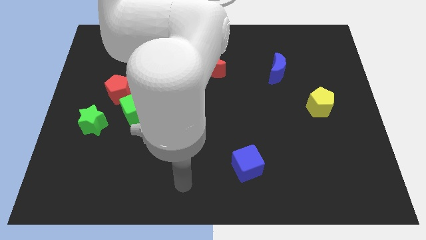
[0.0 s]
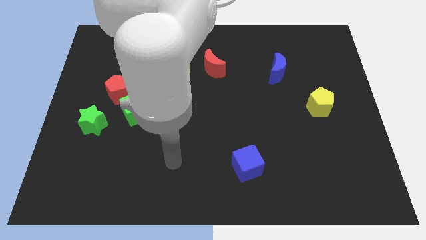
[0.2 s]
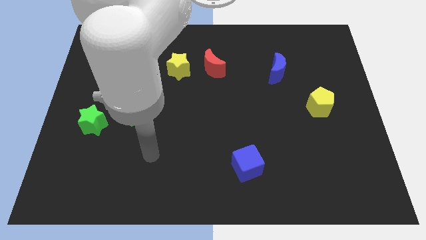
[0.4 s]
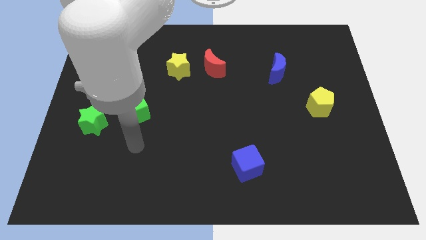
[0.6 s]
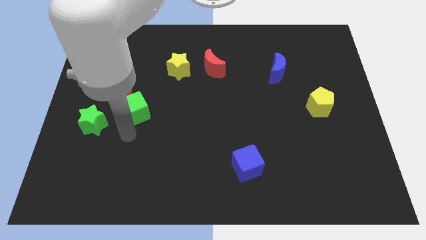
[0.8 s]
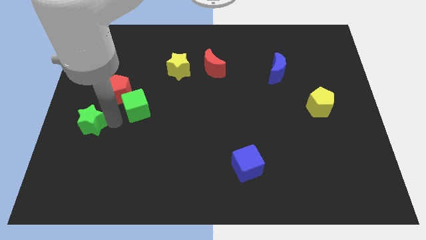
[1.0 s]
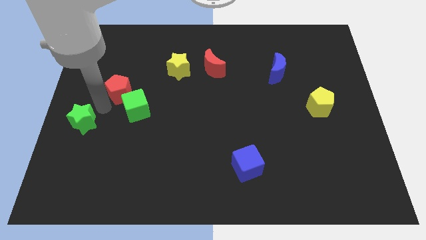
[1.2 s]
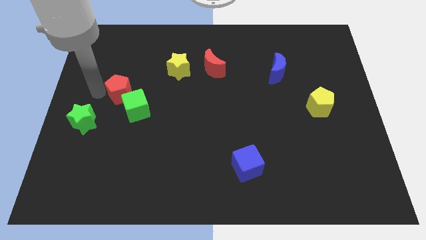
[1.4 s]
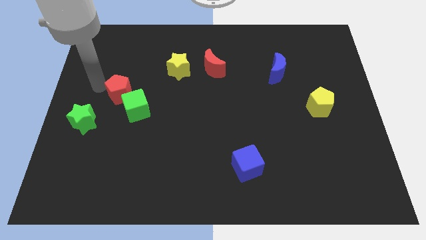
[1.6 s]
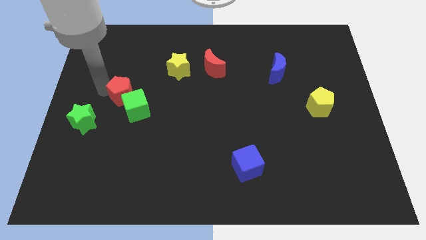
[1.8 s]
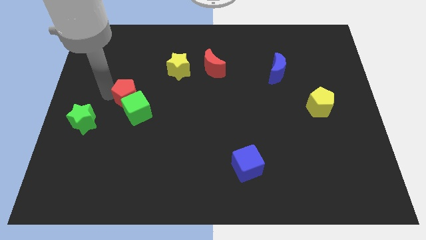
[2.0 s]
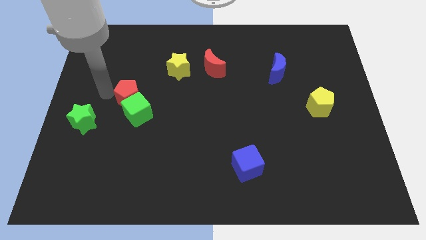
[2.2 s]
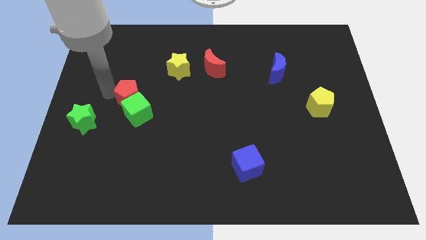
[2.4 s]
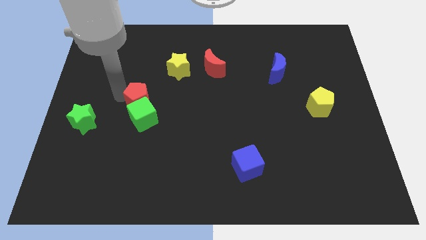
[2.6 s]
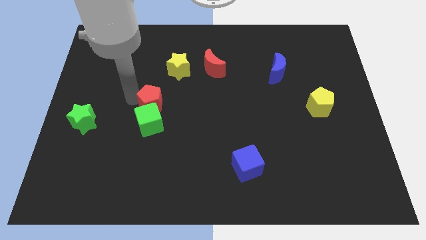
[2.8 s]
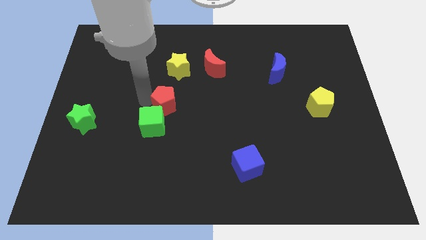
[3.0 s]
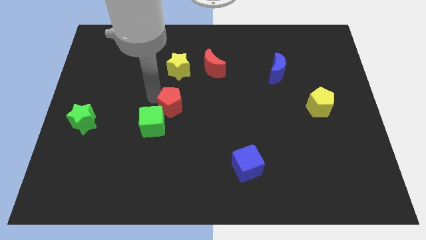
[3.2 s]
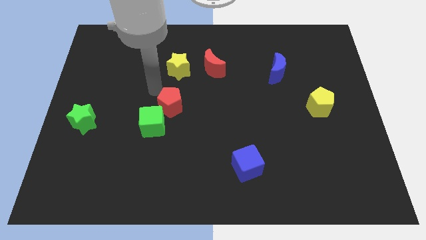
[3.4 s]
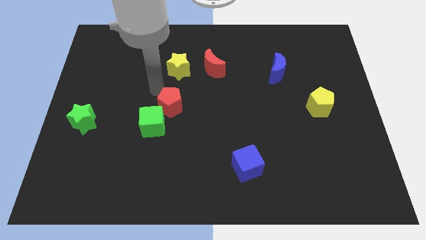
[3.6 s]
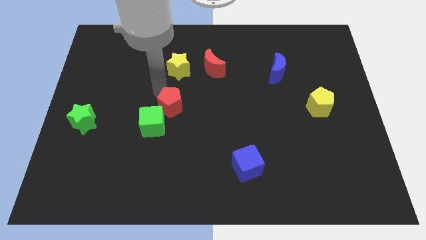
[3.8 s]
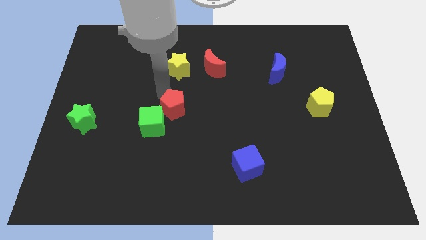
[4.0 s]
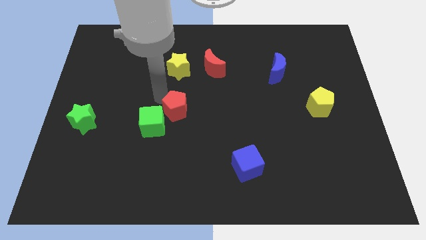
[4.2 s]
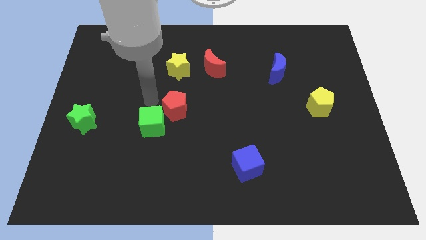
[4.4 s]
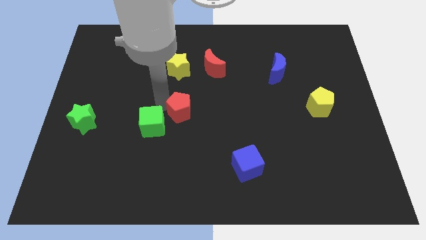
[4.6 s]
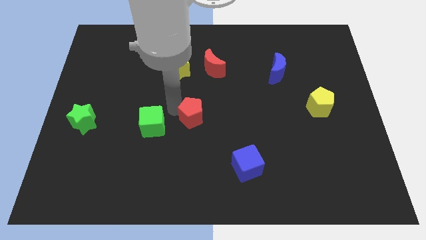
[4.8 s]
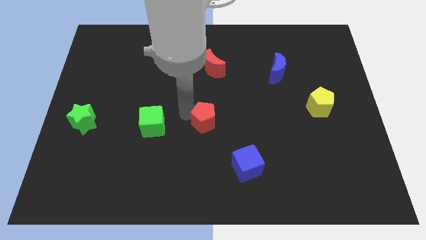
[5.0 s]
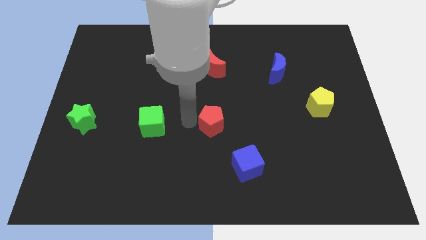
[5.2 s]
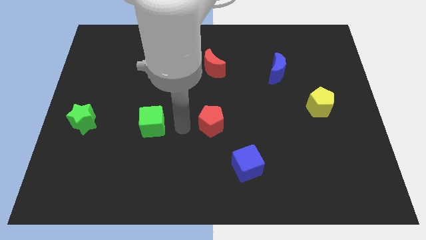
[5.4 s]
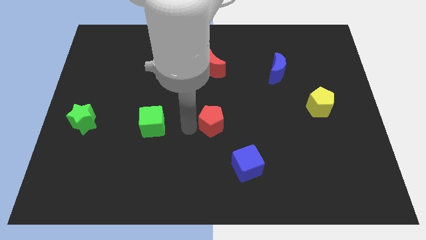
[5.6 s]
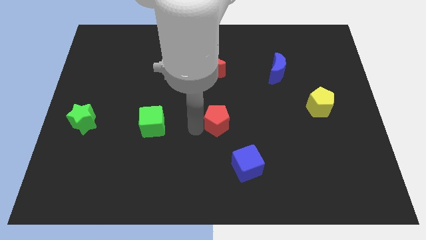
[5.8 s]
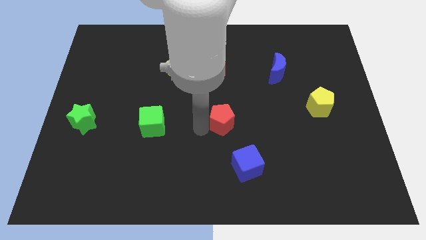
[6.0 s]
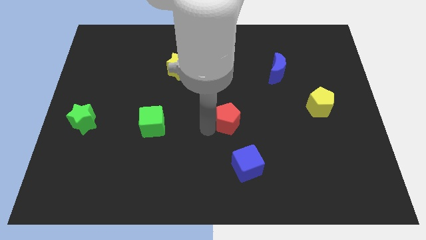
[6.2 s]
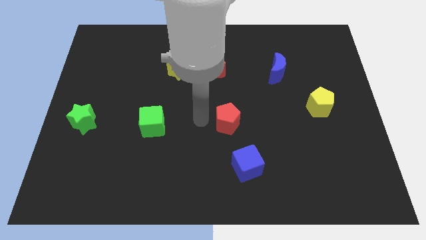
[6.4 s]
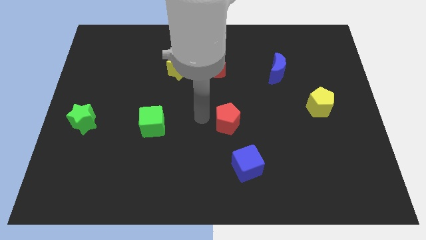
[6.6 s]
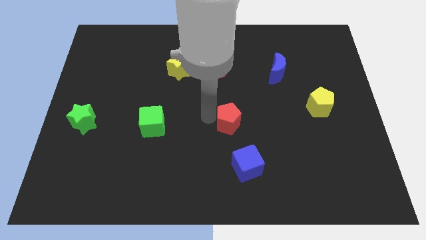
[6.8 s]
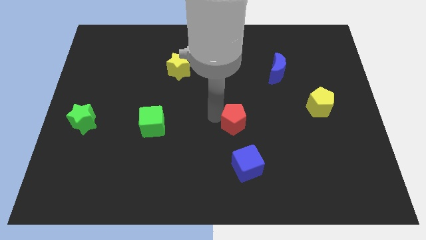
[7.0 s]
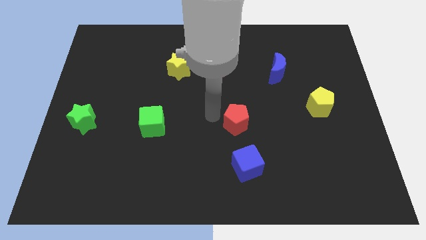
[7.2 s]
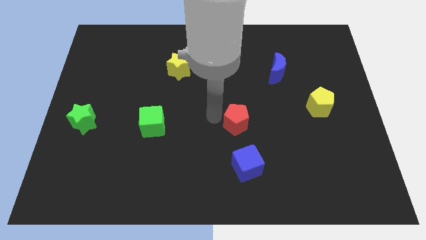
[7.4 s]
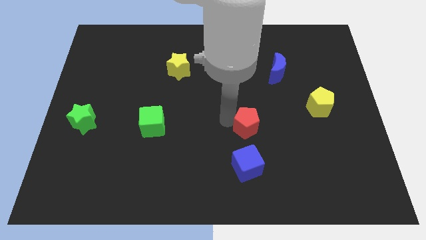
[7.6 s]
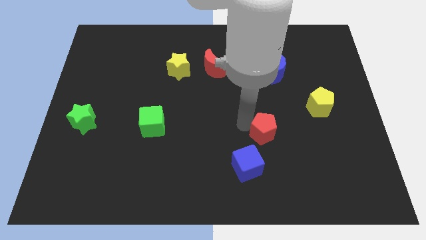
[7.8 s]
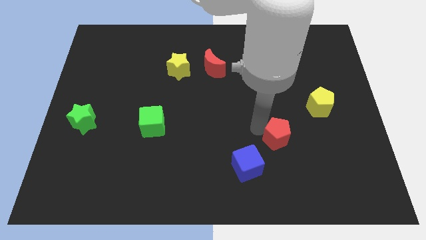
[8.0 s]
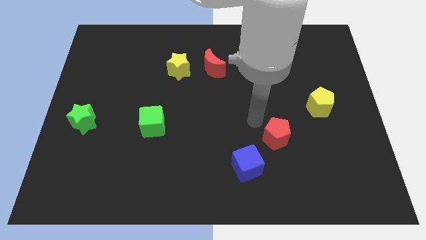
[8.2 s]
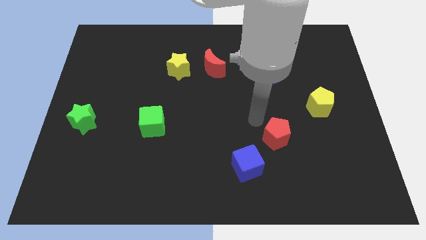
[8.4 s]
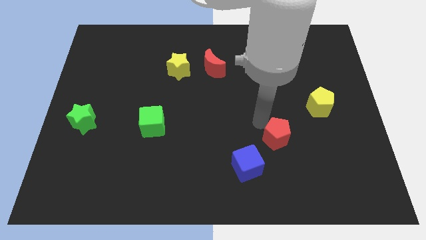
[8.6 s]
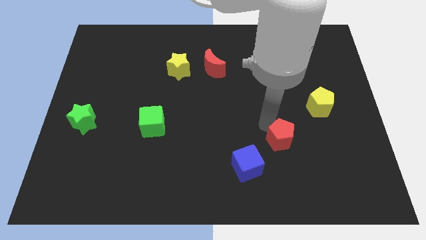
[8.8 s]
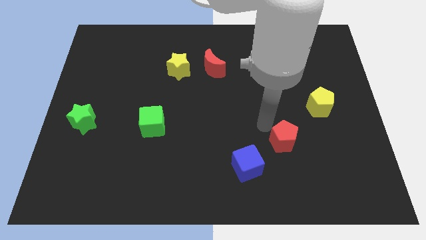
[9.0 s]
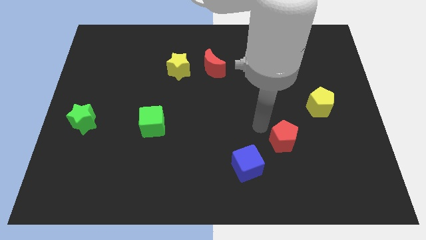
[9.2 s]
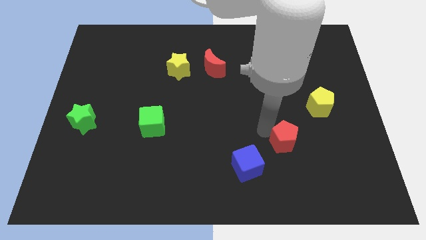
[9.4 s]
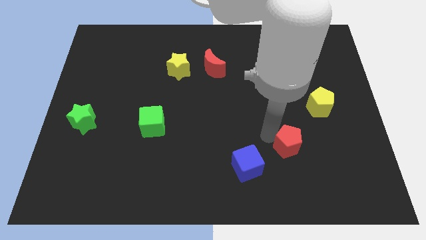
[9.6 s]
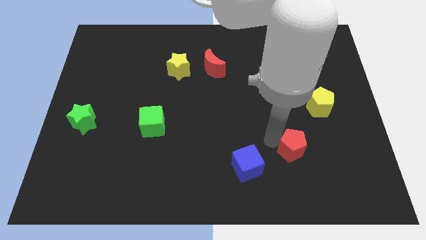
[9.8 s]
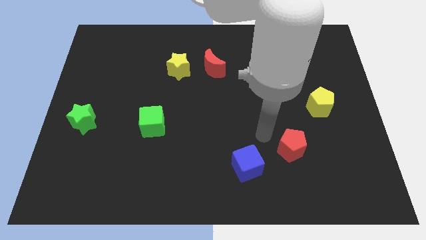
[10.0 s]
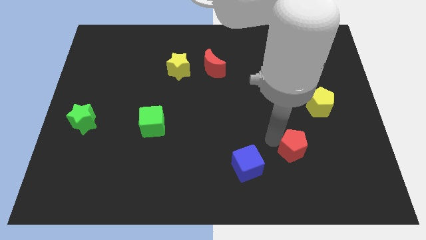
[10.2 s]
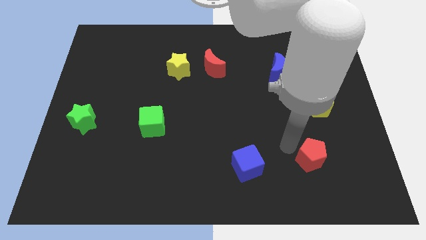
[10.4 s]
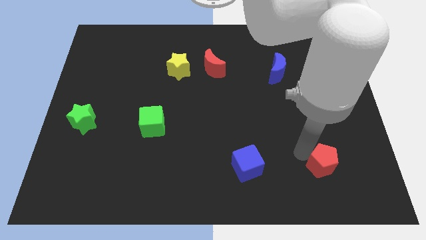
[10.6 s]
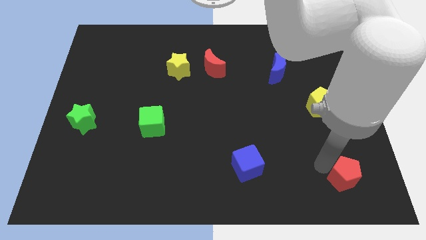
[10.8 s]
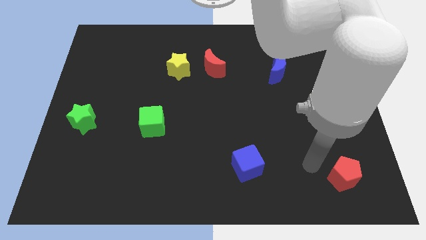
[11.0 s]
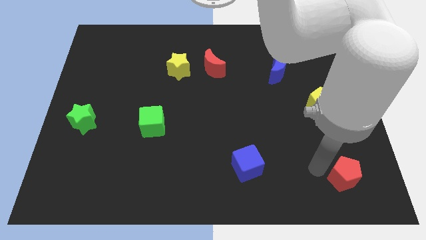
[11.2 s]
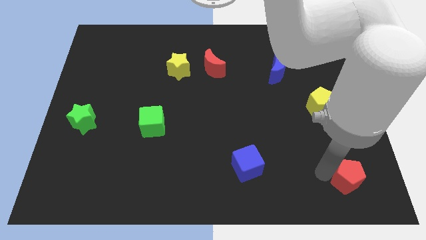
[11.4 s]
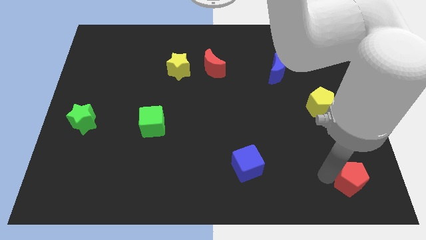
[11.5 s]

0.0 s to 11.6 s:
put the red pentagon to the bottom right of the board

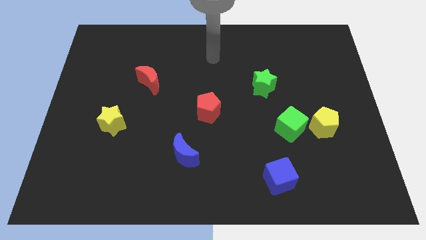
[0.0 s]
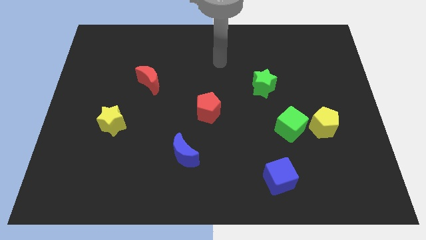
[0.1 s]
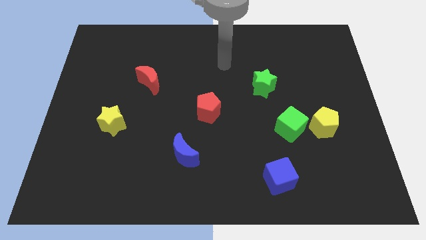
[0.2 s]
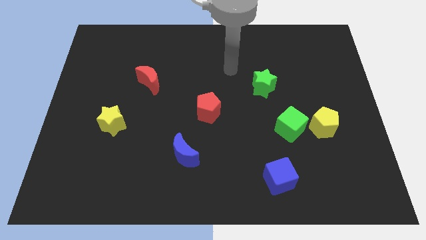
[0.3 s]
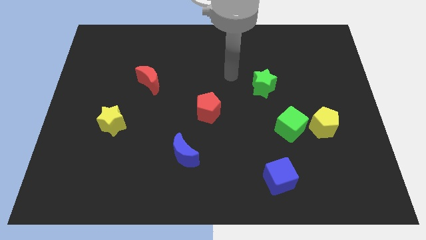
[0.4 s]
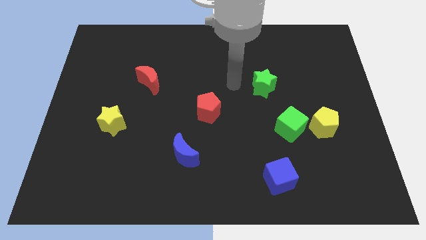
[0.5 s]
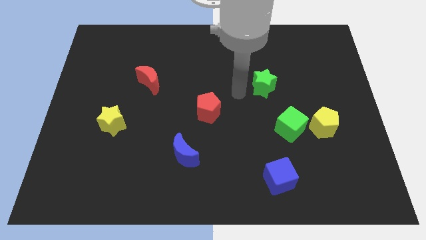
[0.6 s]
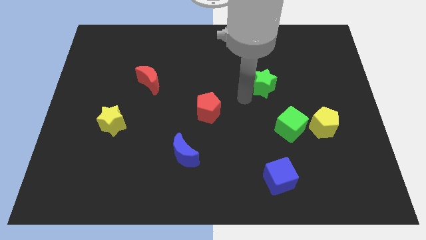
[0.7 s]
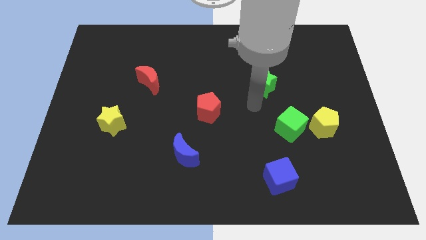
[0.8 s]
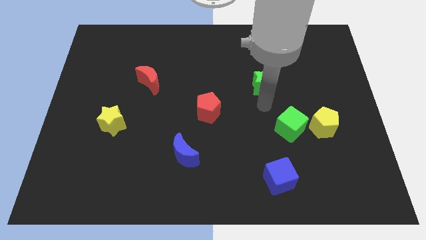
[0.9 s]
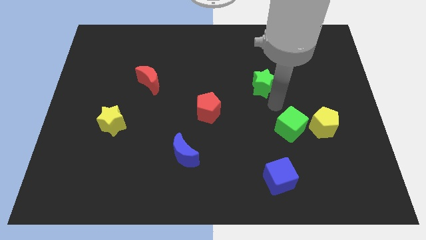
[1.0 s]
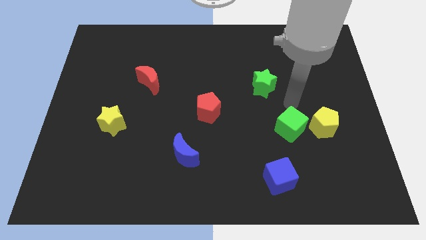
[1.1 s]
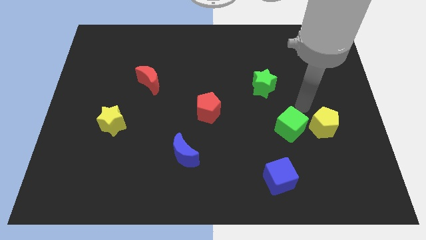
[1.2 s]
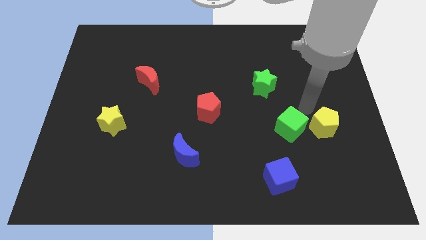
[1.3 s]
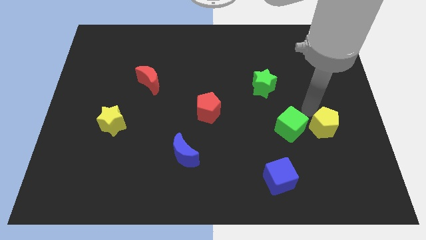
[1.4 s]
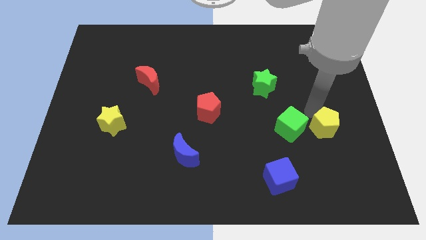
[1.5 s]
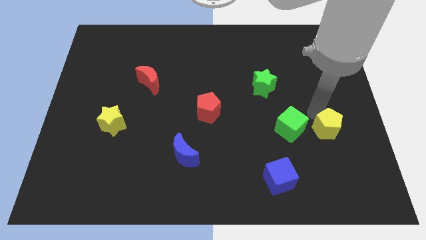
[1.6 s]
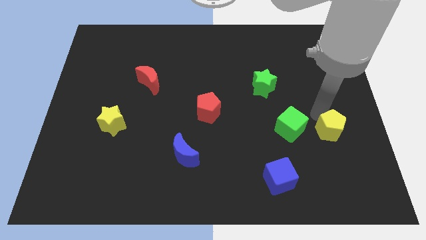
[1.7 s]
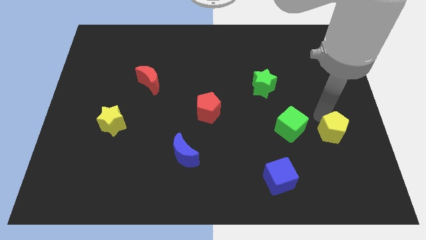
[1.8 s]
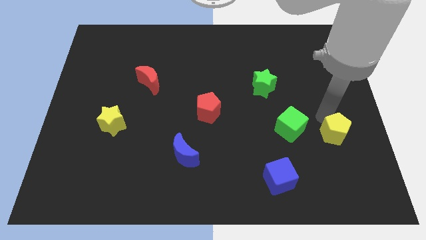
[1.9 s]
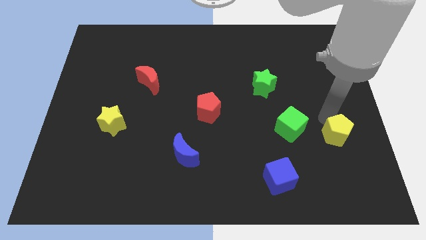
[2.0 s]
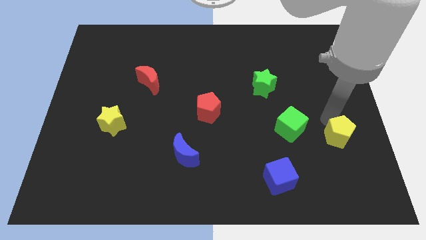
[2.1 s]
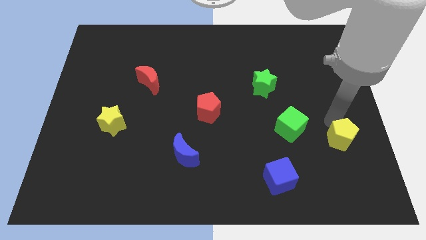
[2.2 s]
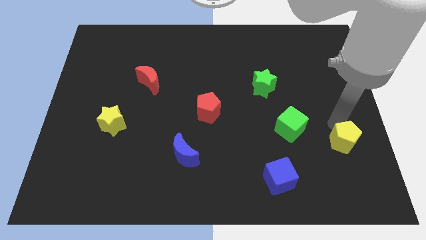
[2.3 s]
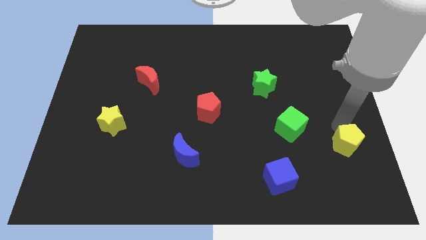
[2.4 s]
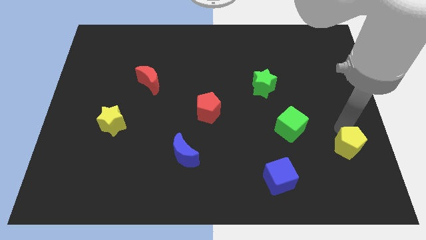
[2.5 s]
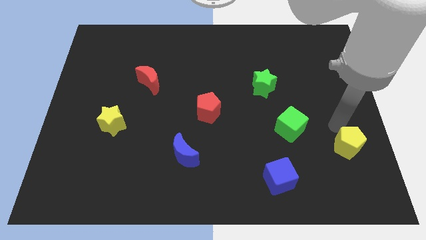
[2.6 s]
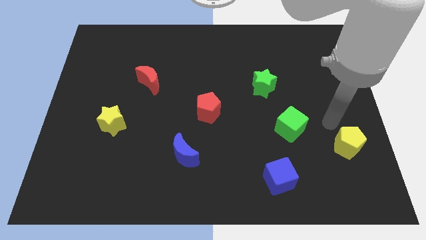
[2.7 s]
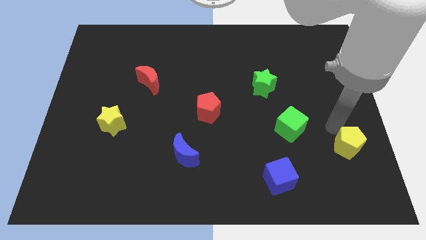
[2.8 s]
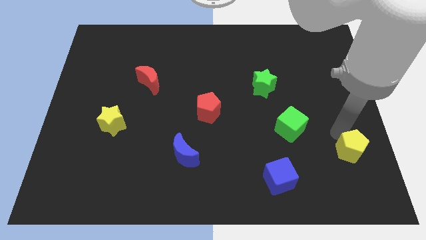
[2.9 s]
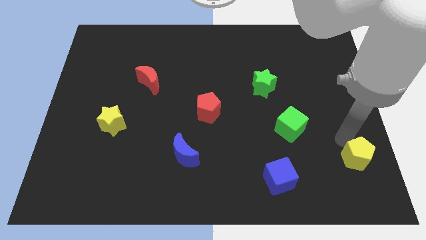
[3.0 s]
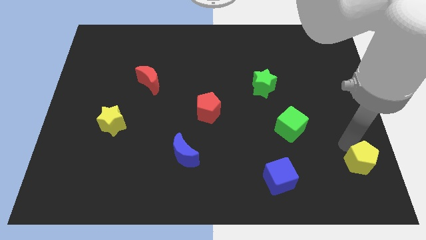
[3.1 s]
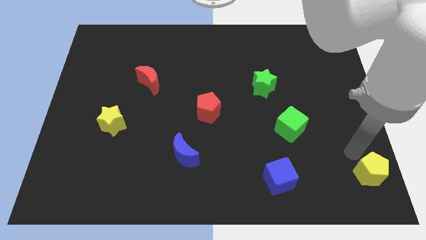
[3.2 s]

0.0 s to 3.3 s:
move the yellow pentagon to the bottom right of the board
